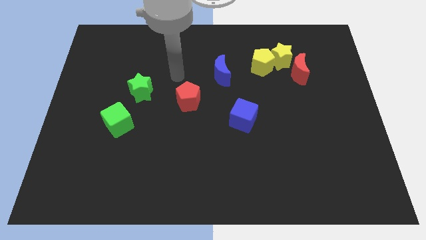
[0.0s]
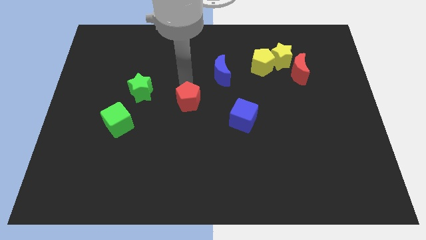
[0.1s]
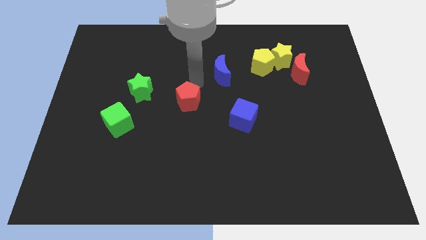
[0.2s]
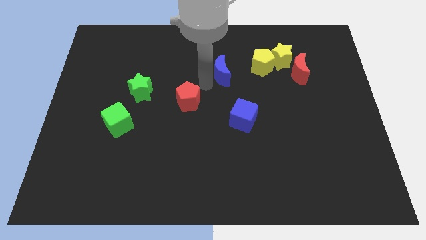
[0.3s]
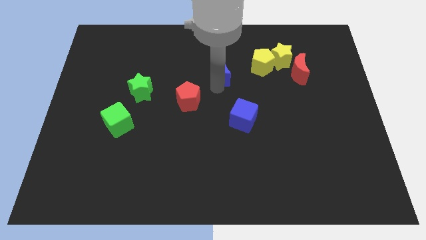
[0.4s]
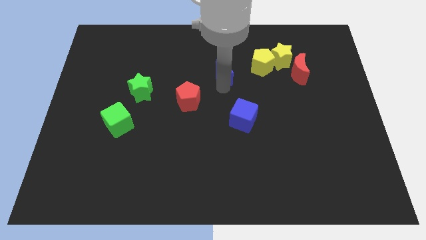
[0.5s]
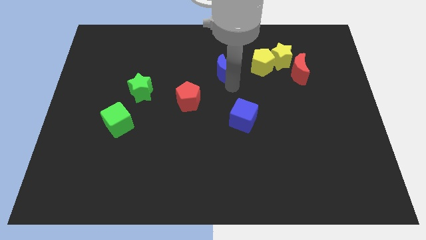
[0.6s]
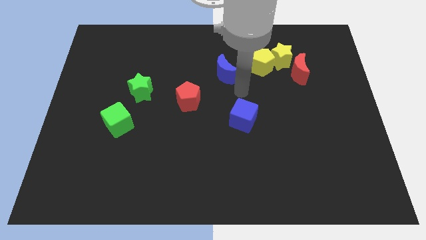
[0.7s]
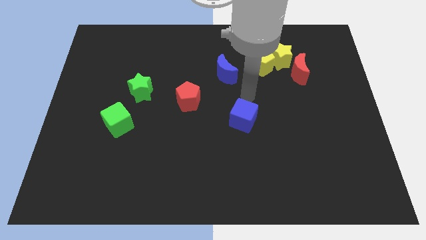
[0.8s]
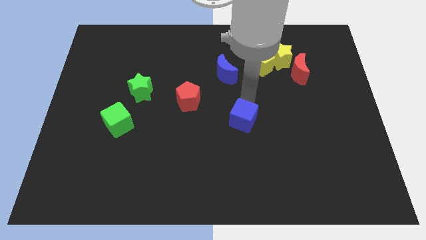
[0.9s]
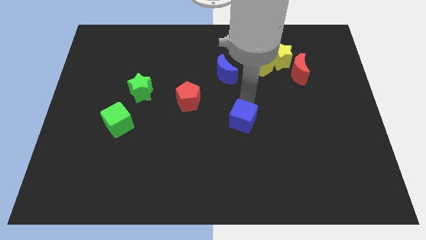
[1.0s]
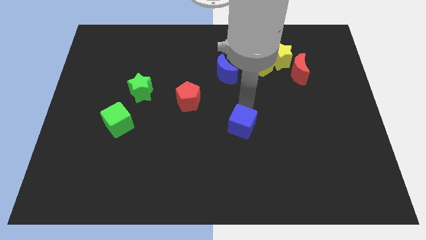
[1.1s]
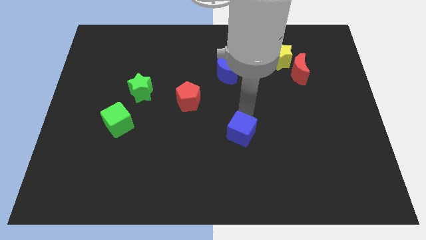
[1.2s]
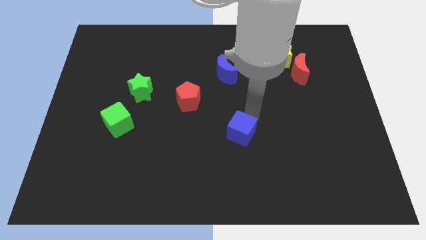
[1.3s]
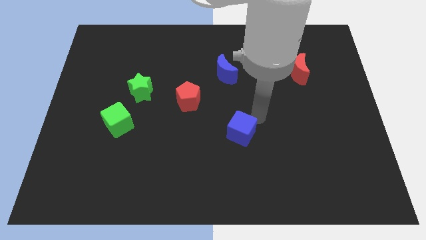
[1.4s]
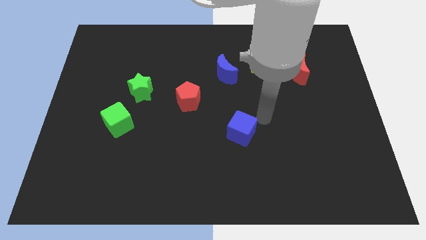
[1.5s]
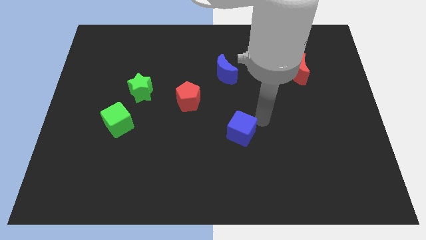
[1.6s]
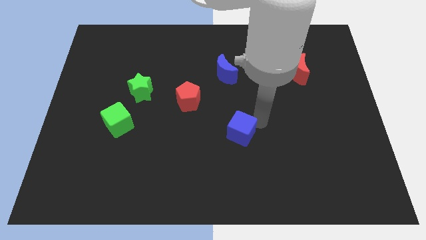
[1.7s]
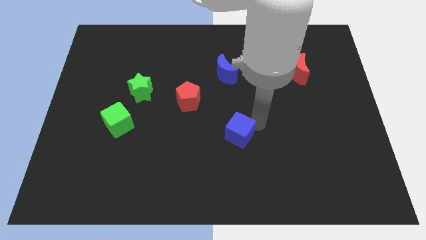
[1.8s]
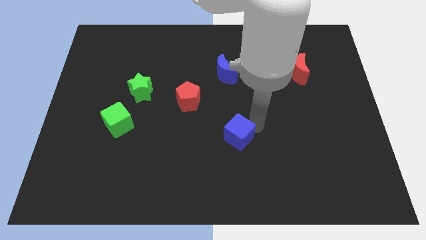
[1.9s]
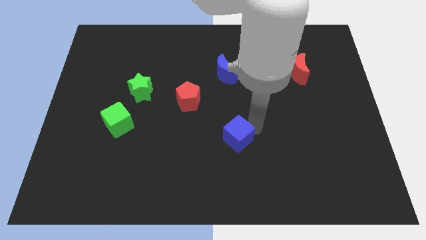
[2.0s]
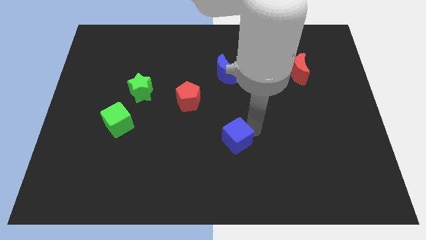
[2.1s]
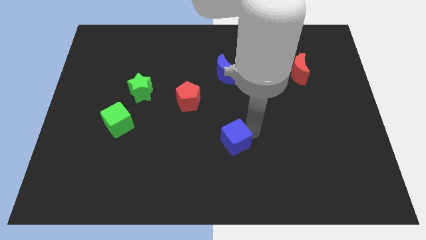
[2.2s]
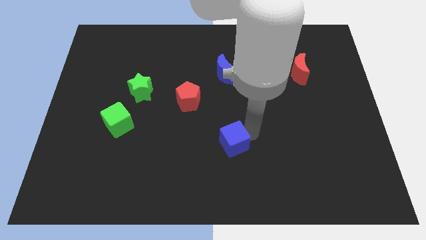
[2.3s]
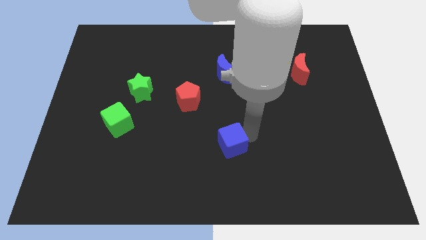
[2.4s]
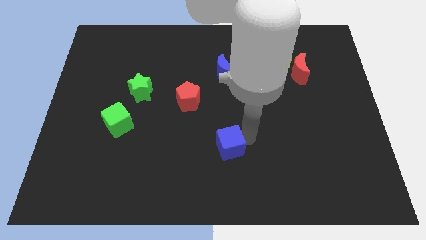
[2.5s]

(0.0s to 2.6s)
move the blue cube downwards and left slightly

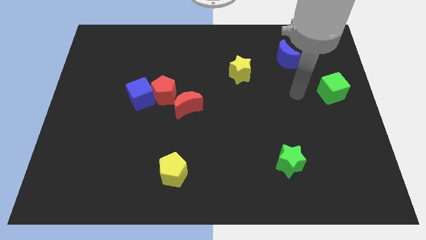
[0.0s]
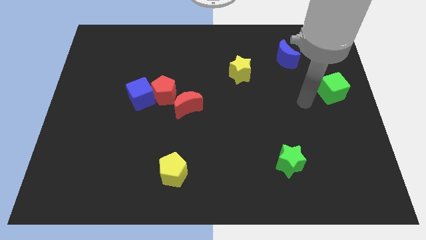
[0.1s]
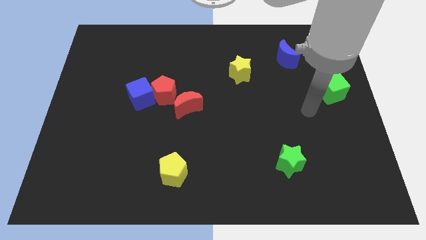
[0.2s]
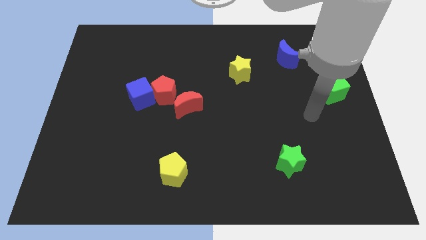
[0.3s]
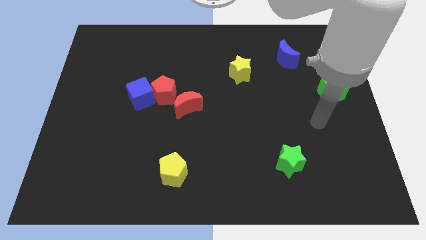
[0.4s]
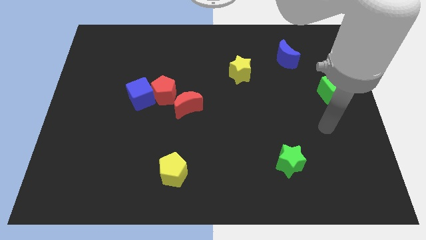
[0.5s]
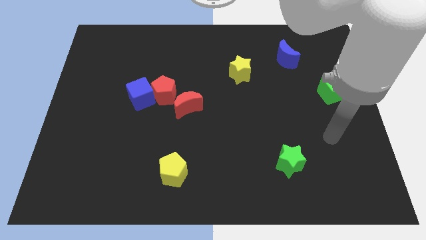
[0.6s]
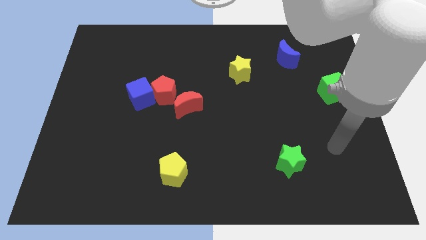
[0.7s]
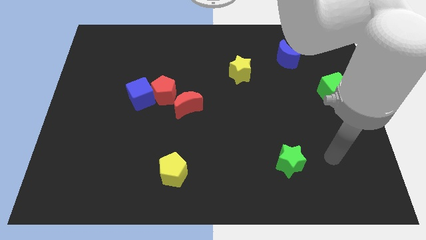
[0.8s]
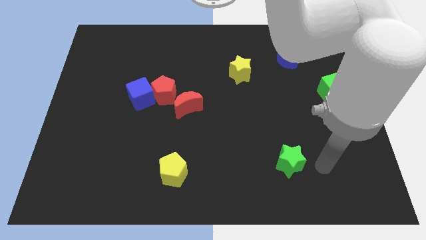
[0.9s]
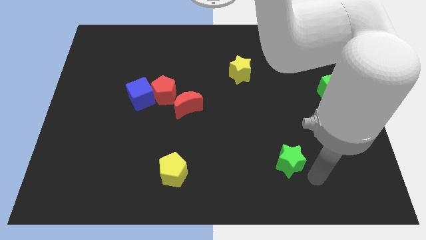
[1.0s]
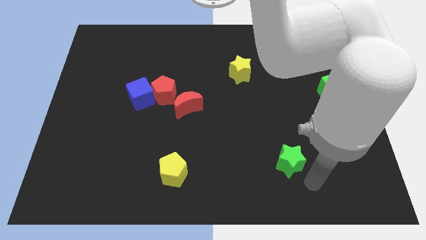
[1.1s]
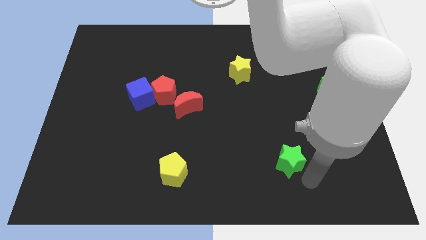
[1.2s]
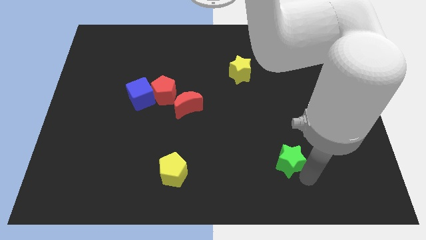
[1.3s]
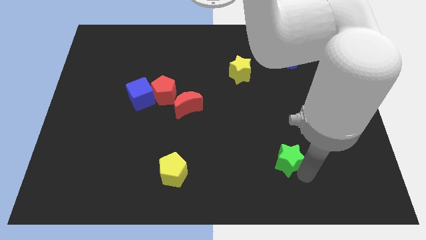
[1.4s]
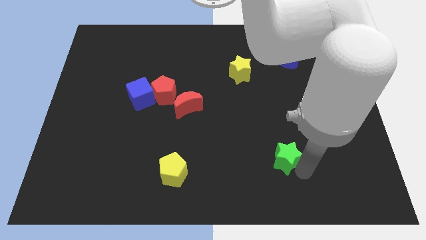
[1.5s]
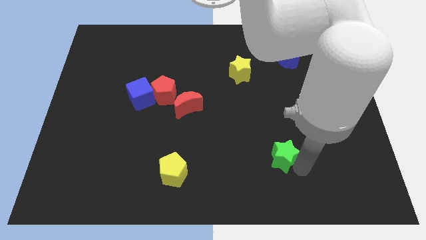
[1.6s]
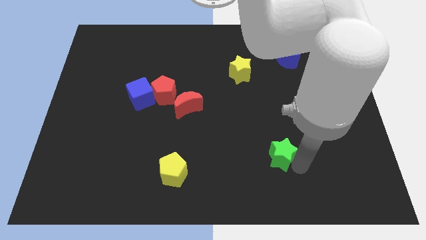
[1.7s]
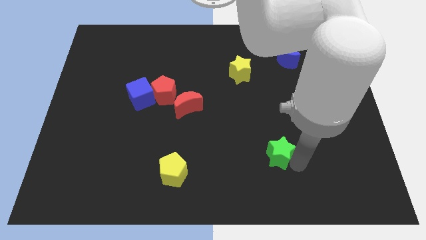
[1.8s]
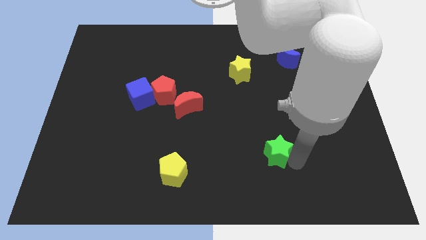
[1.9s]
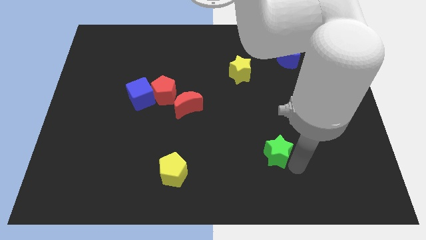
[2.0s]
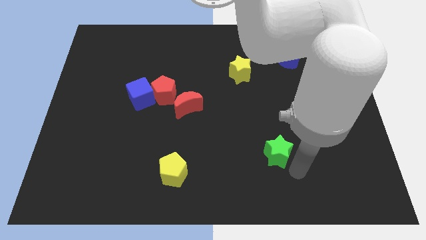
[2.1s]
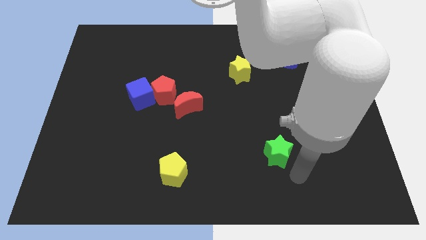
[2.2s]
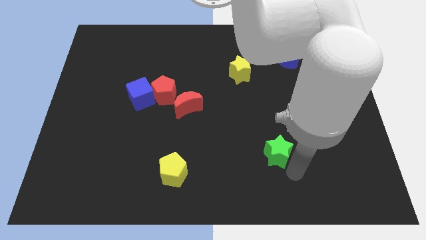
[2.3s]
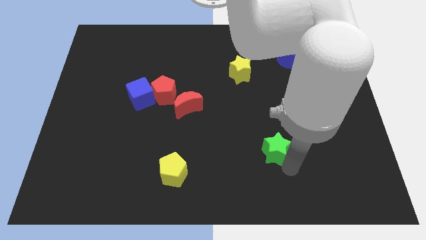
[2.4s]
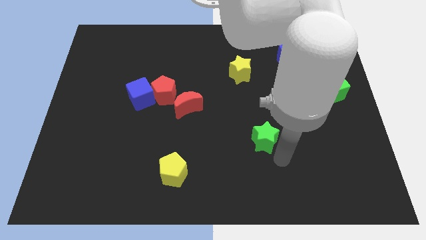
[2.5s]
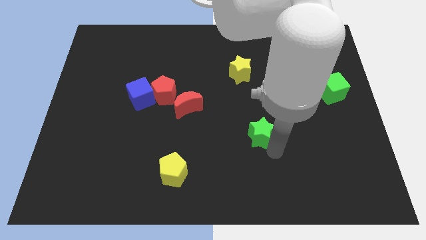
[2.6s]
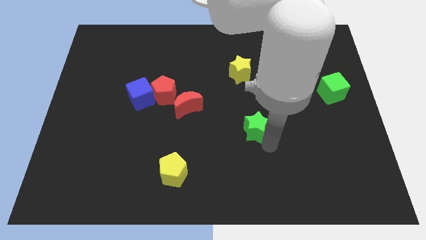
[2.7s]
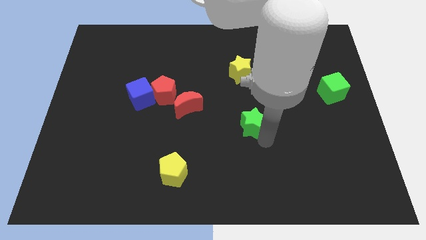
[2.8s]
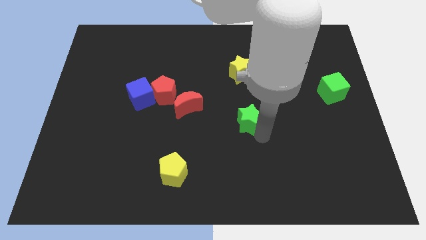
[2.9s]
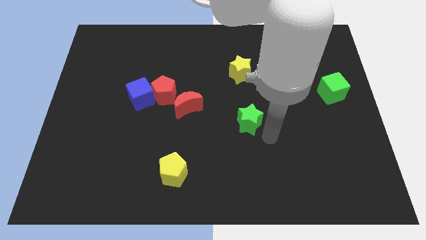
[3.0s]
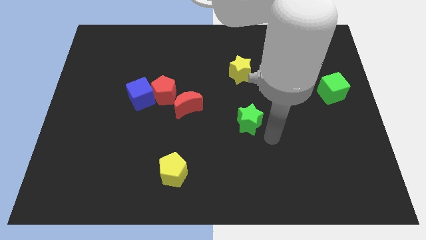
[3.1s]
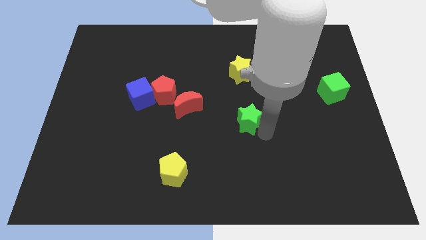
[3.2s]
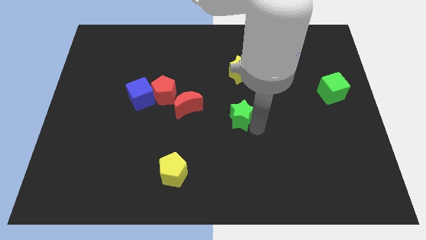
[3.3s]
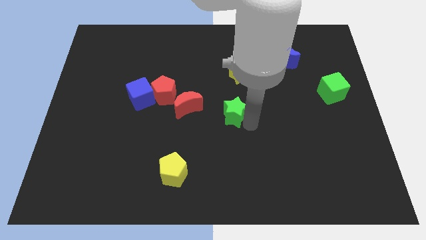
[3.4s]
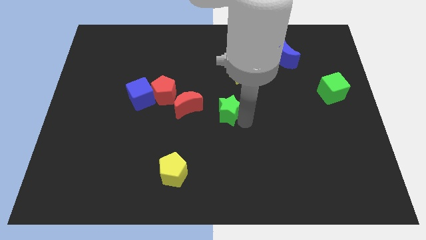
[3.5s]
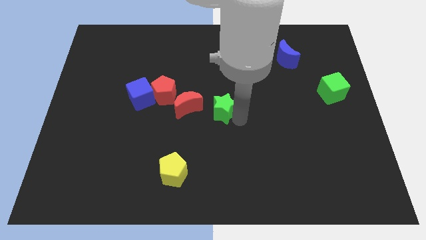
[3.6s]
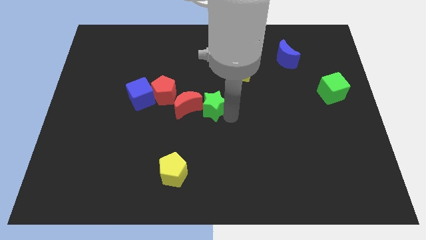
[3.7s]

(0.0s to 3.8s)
push the green star upwards and left

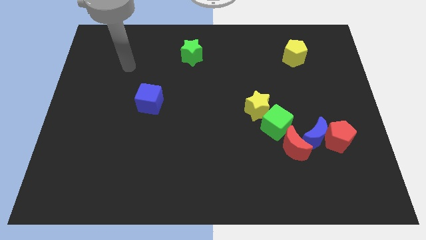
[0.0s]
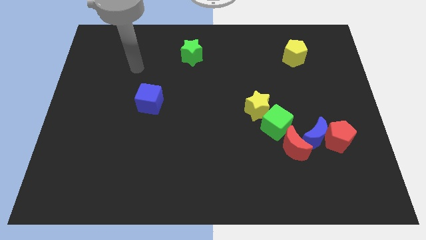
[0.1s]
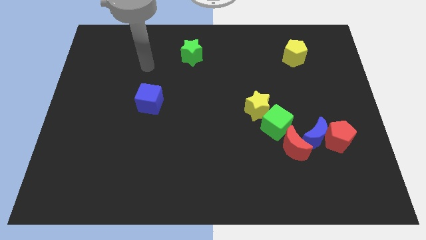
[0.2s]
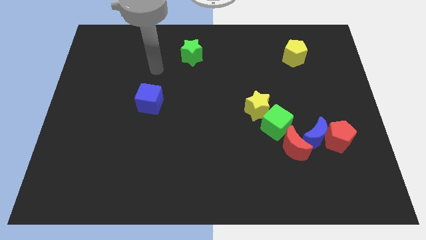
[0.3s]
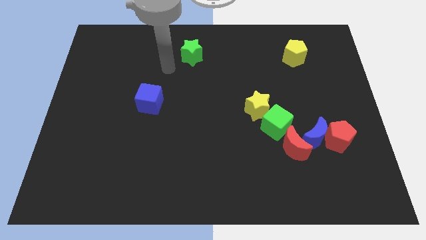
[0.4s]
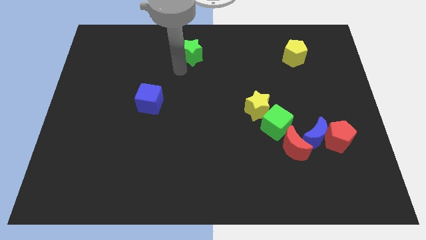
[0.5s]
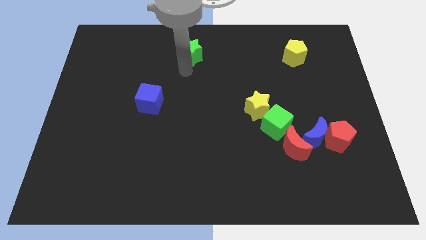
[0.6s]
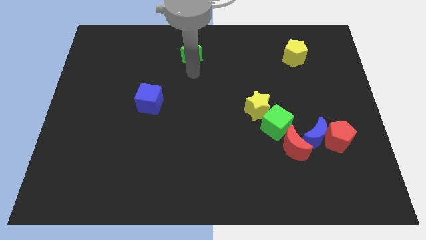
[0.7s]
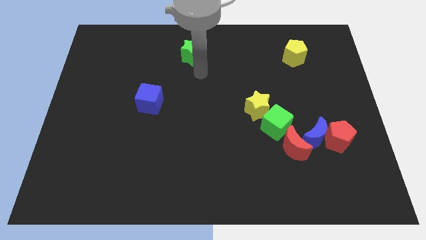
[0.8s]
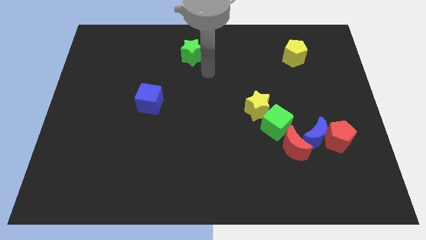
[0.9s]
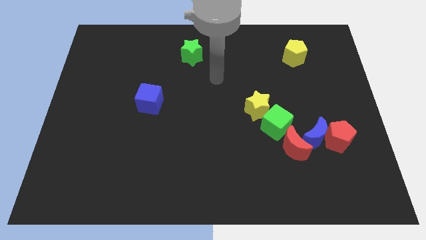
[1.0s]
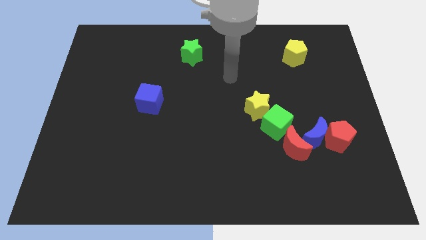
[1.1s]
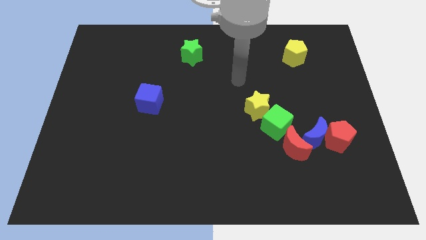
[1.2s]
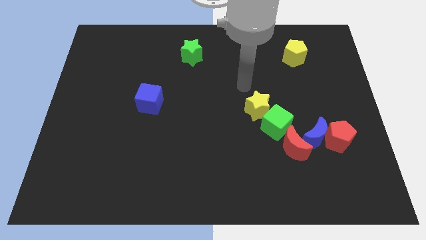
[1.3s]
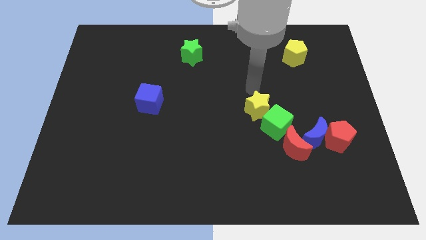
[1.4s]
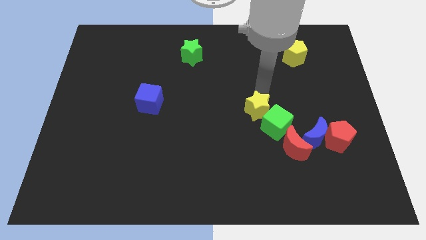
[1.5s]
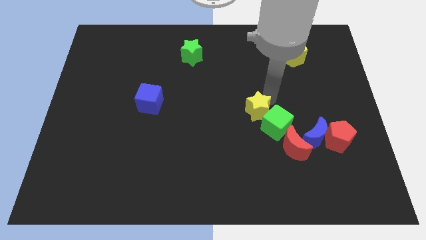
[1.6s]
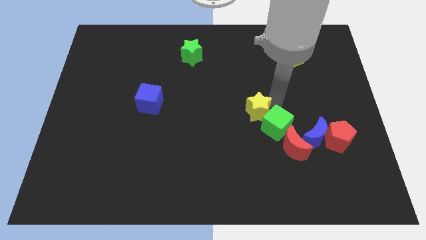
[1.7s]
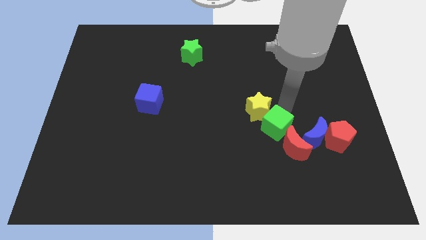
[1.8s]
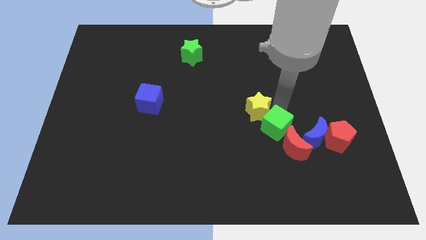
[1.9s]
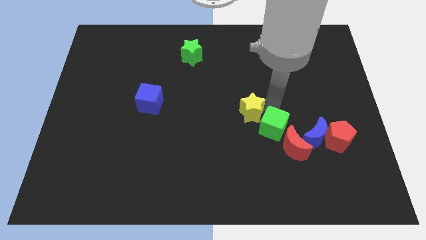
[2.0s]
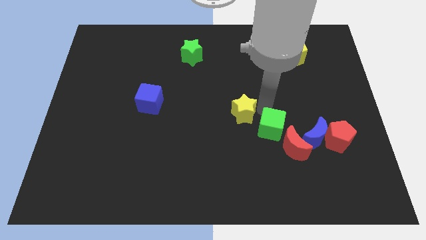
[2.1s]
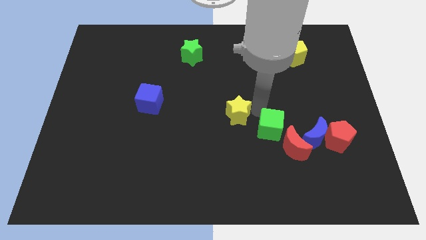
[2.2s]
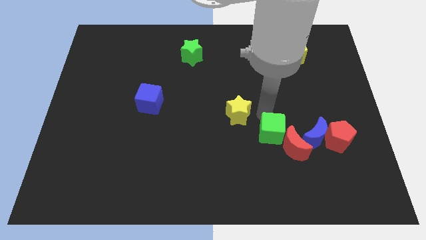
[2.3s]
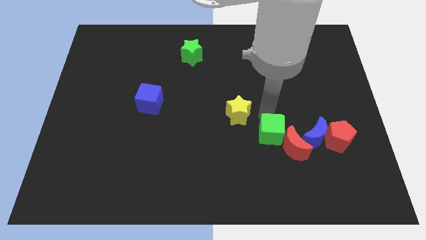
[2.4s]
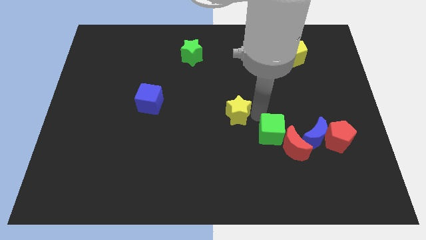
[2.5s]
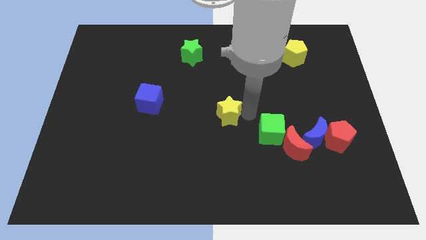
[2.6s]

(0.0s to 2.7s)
move the yellow star a bit to the left
